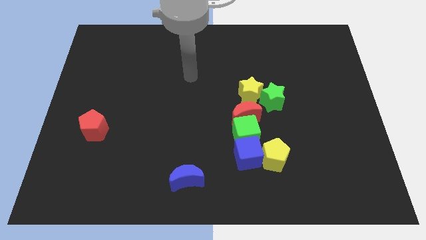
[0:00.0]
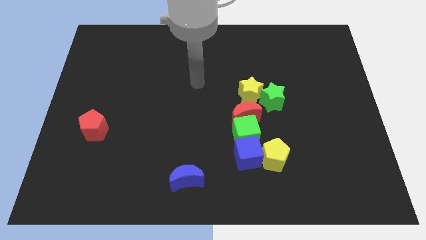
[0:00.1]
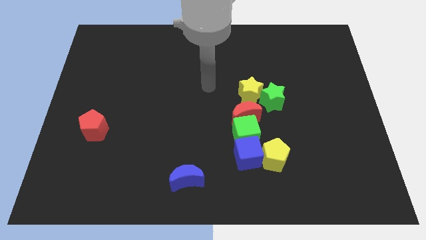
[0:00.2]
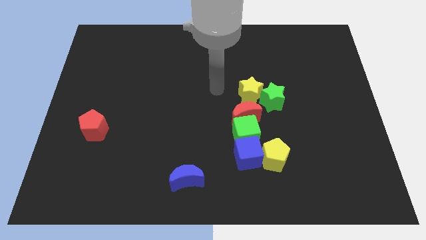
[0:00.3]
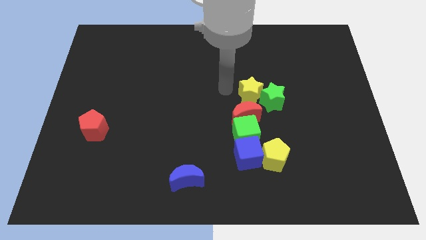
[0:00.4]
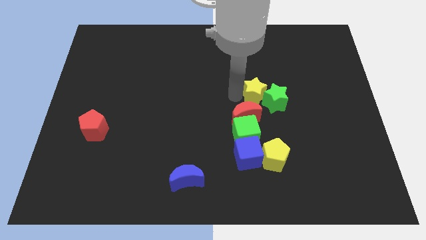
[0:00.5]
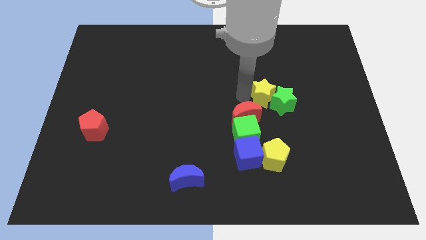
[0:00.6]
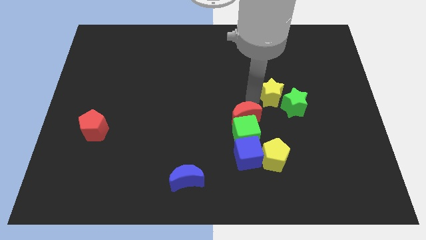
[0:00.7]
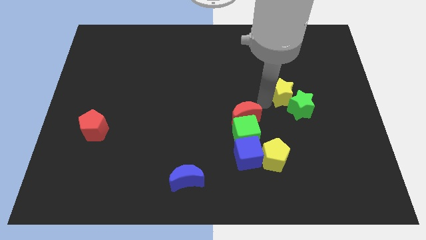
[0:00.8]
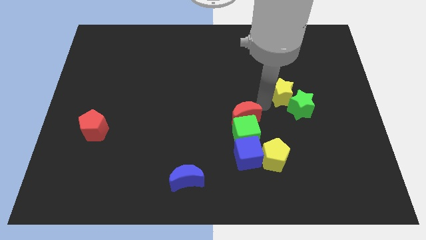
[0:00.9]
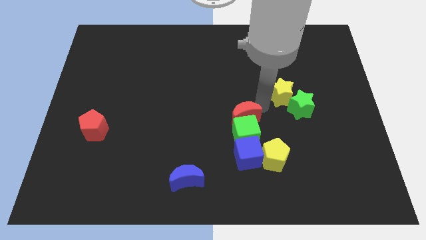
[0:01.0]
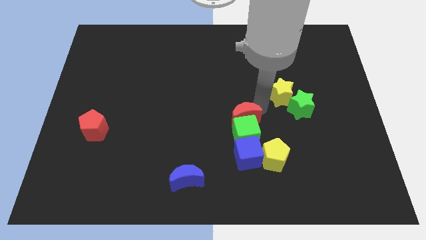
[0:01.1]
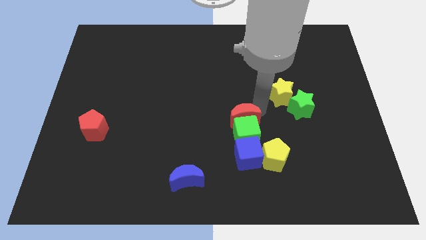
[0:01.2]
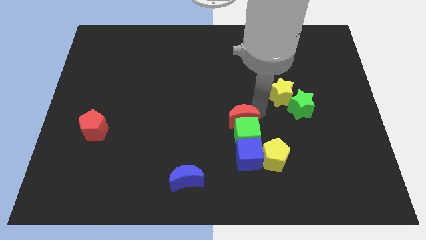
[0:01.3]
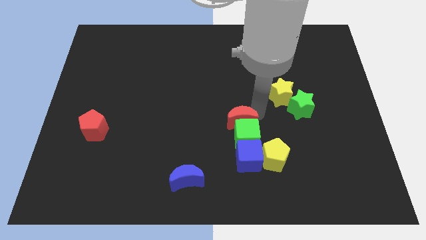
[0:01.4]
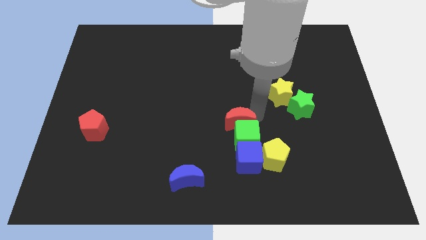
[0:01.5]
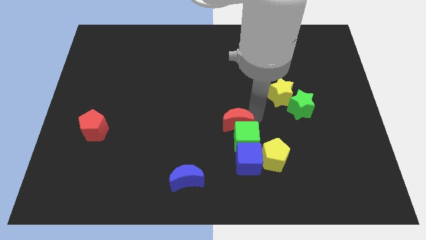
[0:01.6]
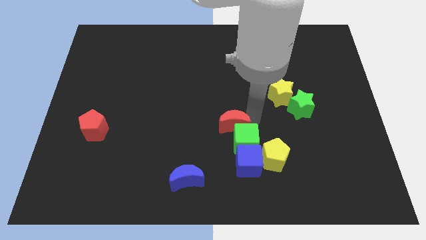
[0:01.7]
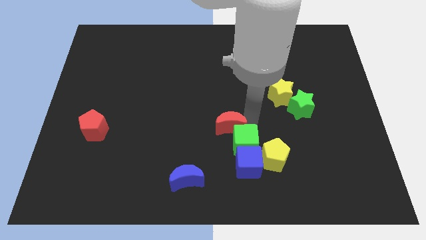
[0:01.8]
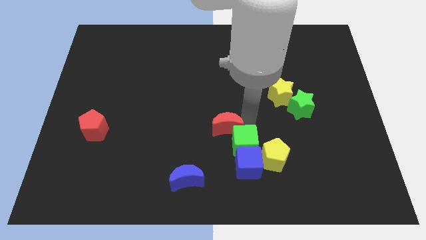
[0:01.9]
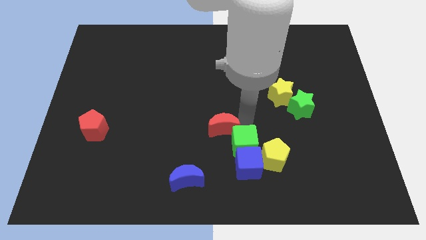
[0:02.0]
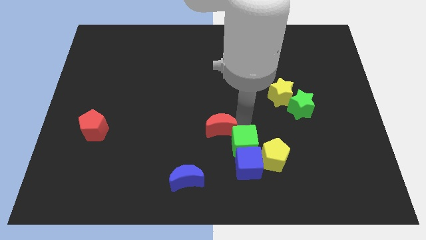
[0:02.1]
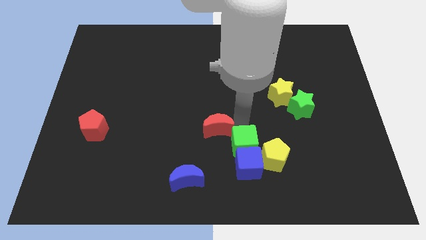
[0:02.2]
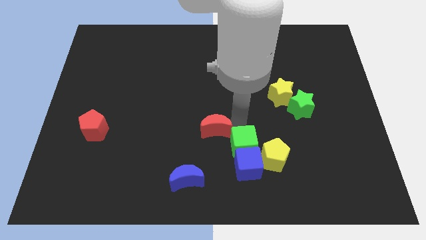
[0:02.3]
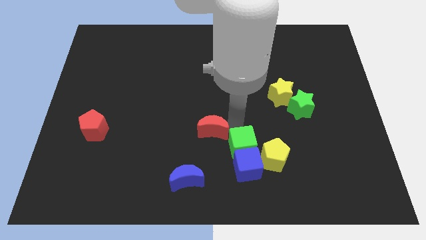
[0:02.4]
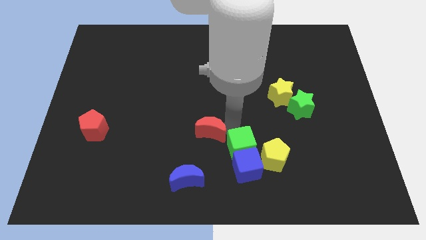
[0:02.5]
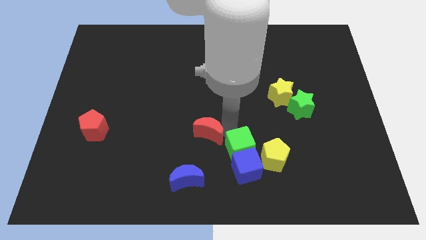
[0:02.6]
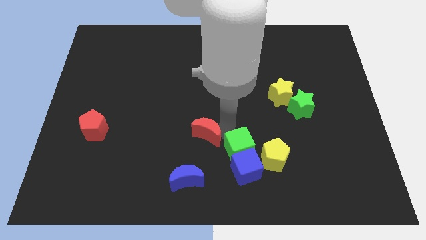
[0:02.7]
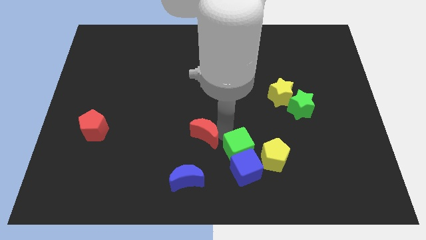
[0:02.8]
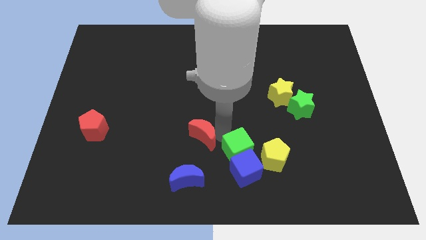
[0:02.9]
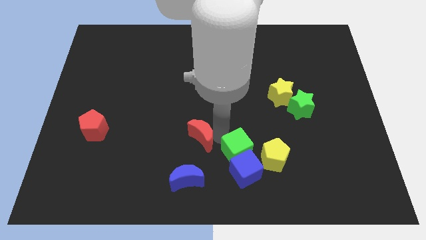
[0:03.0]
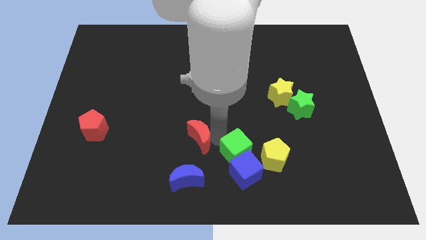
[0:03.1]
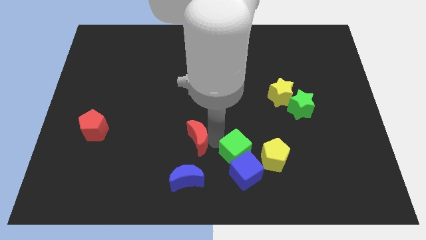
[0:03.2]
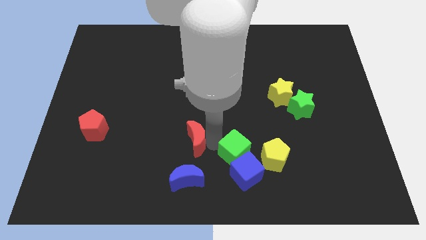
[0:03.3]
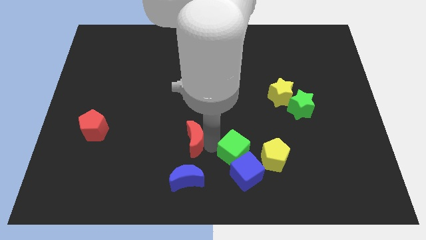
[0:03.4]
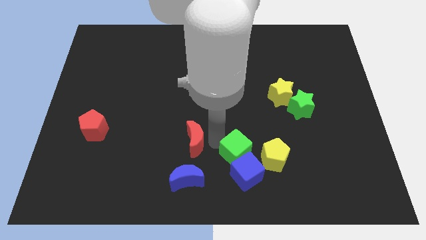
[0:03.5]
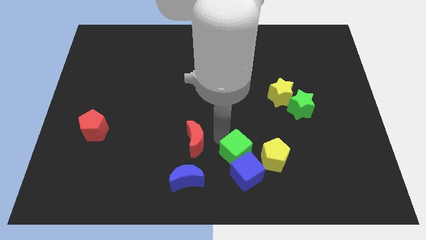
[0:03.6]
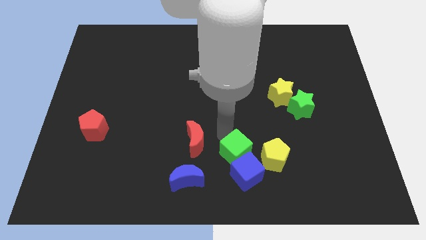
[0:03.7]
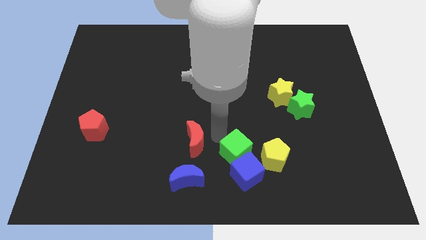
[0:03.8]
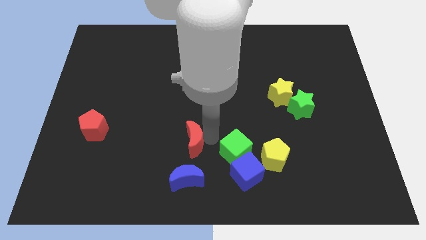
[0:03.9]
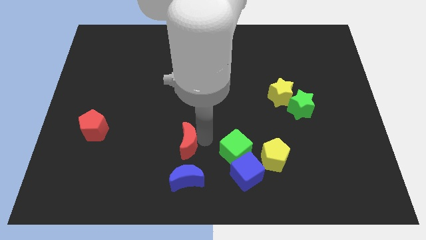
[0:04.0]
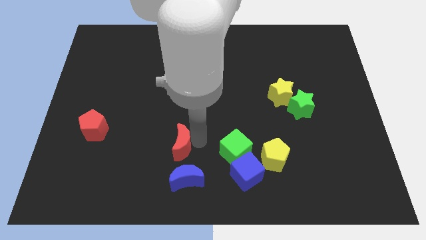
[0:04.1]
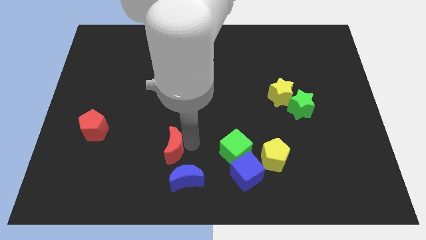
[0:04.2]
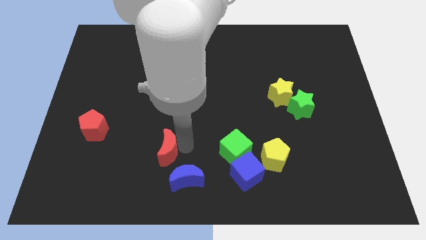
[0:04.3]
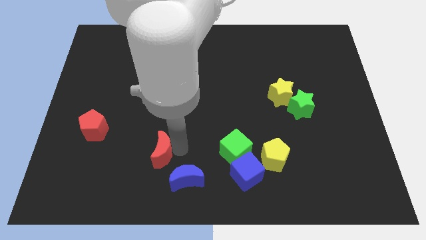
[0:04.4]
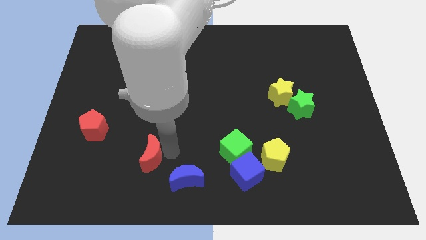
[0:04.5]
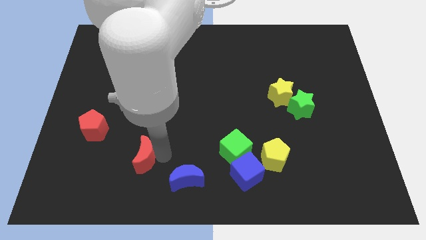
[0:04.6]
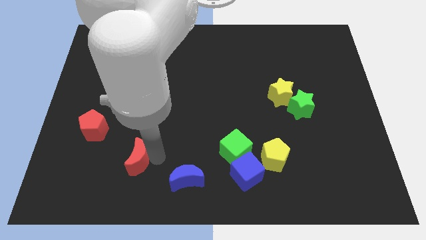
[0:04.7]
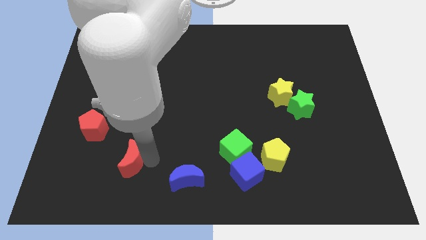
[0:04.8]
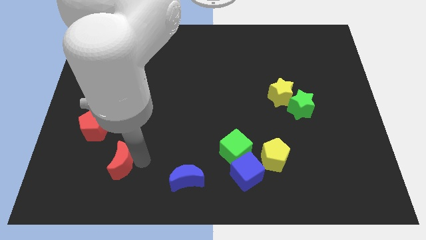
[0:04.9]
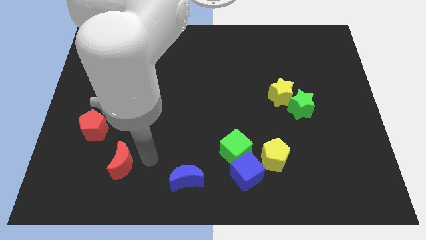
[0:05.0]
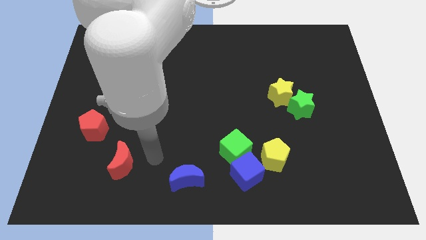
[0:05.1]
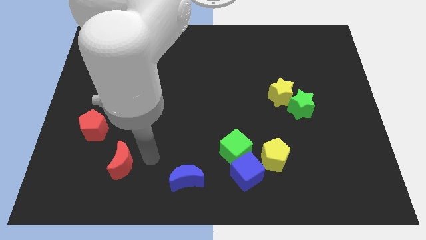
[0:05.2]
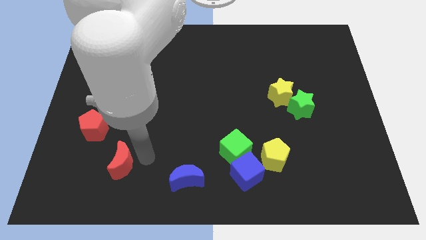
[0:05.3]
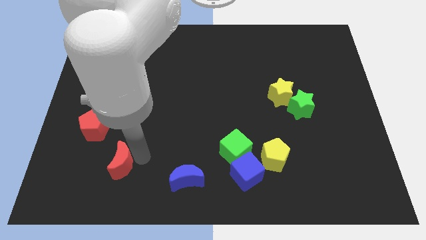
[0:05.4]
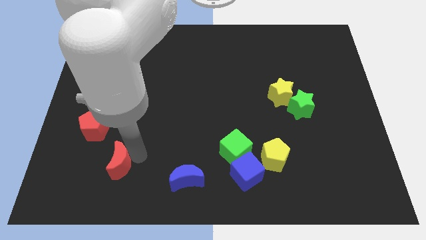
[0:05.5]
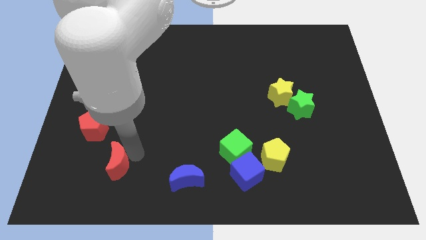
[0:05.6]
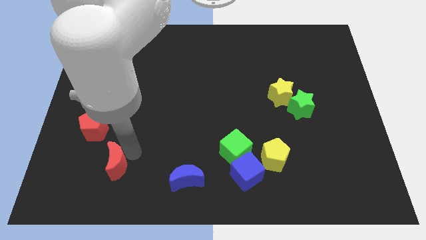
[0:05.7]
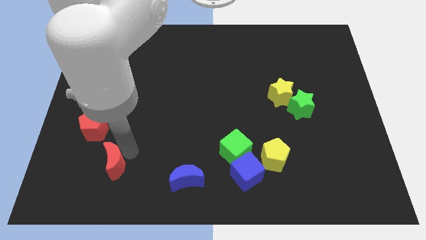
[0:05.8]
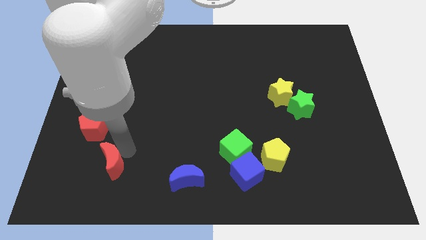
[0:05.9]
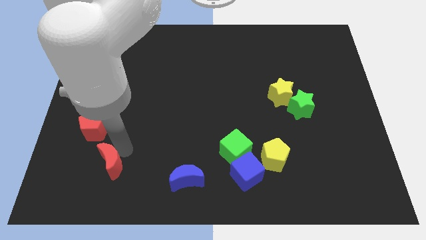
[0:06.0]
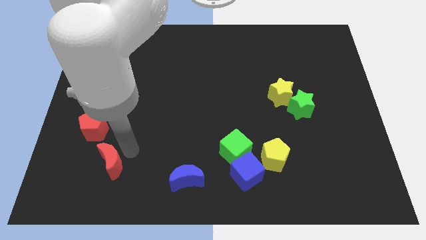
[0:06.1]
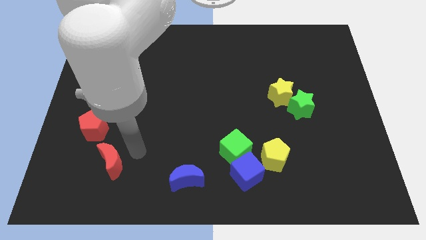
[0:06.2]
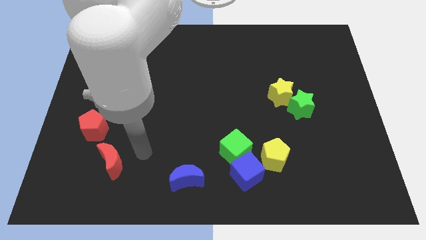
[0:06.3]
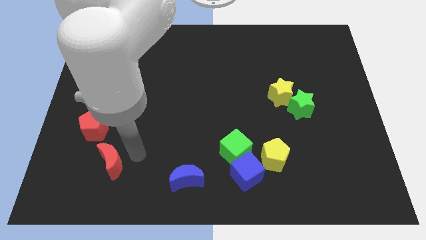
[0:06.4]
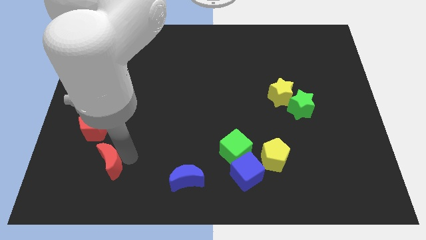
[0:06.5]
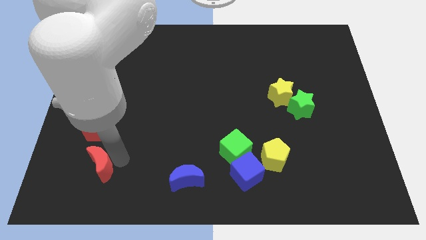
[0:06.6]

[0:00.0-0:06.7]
push the red moon to the bottom side of the red pentagon

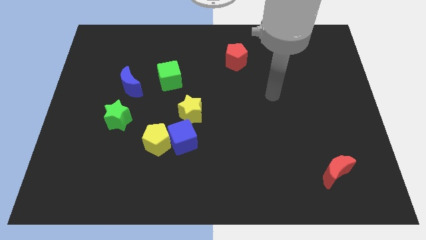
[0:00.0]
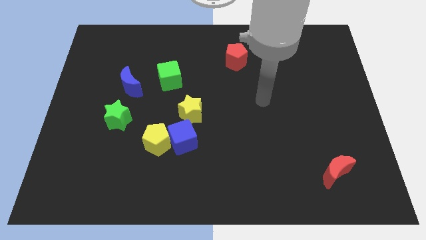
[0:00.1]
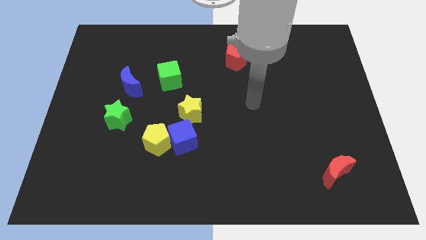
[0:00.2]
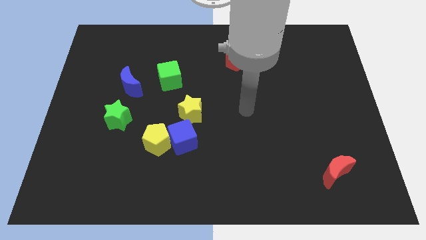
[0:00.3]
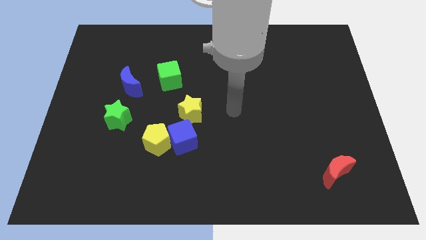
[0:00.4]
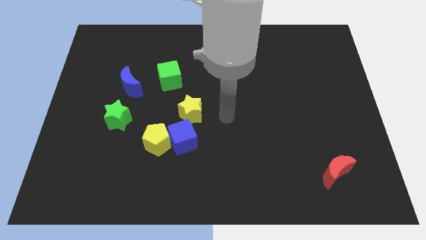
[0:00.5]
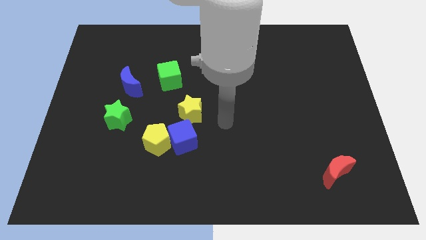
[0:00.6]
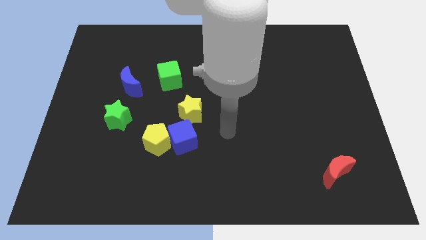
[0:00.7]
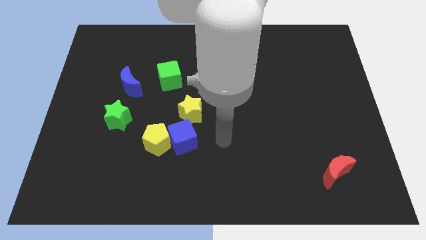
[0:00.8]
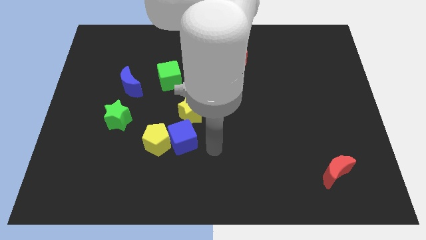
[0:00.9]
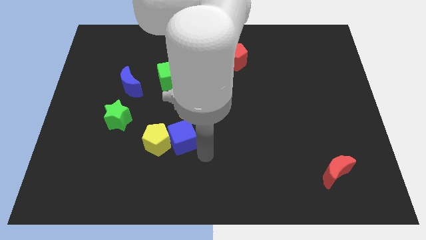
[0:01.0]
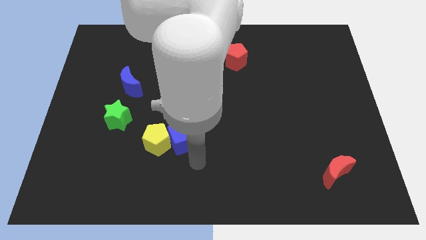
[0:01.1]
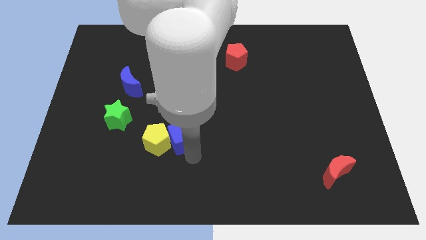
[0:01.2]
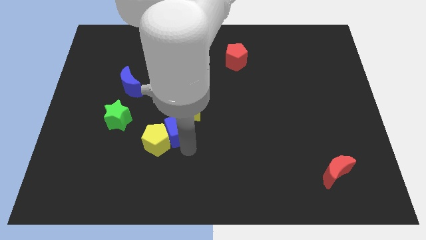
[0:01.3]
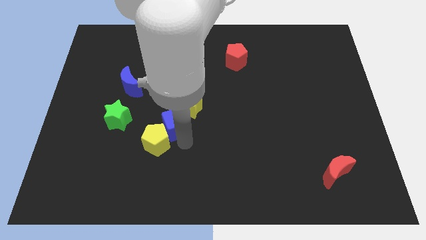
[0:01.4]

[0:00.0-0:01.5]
put the blue cube below the green cube
